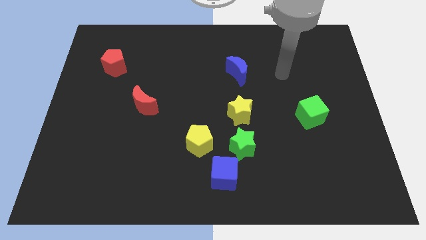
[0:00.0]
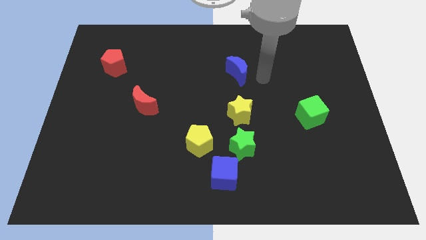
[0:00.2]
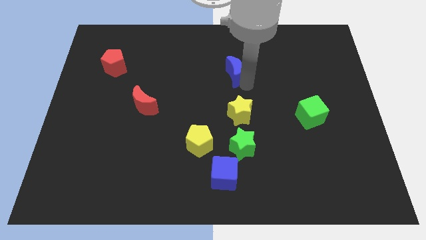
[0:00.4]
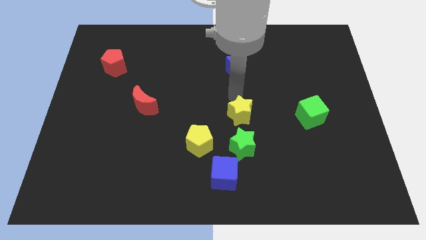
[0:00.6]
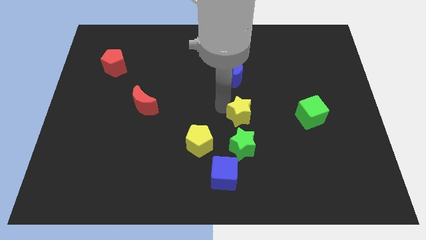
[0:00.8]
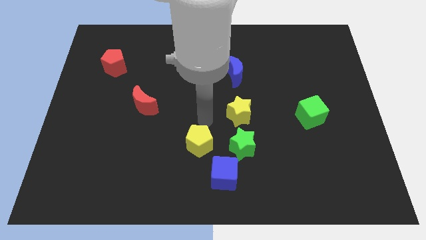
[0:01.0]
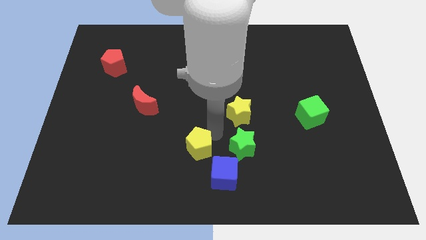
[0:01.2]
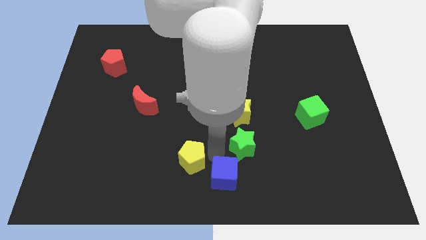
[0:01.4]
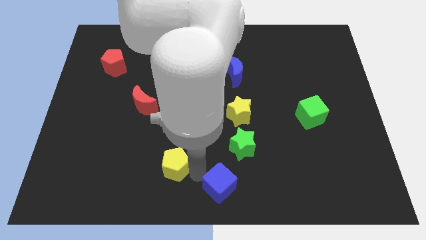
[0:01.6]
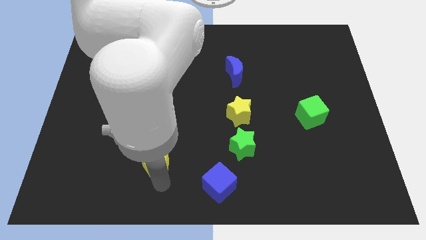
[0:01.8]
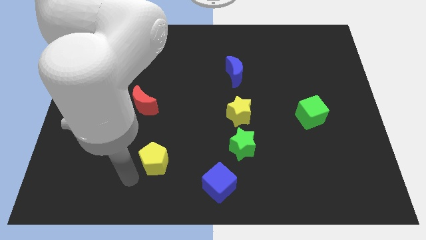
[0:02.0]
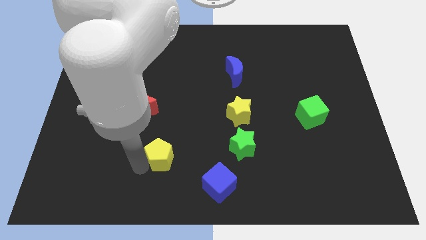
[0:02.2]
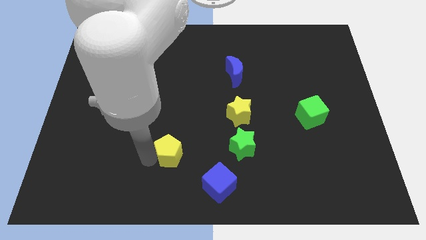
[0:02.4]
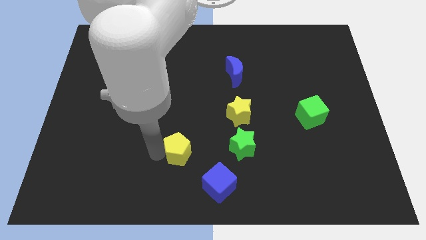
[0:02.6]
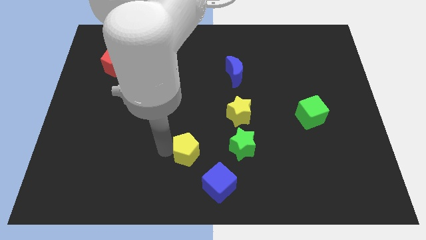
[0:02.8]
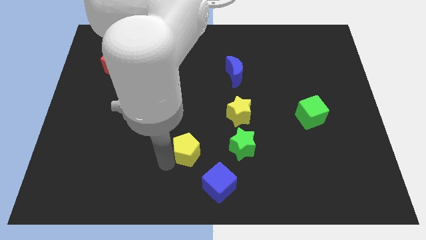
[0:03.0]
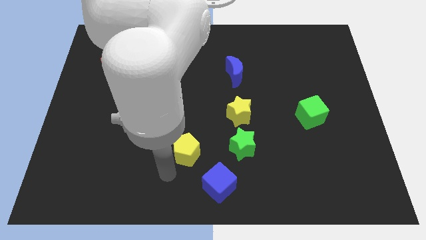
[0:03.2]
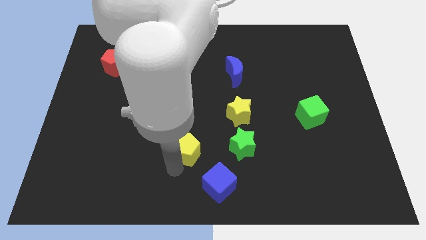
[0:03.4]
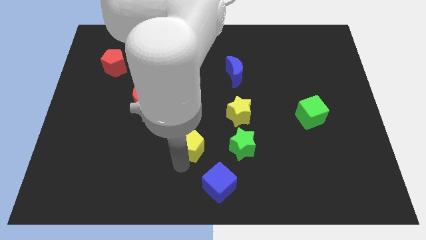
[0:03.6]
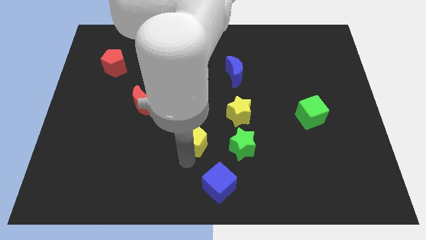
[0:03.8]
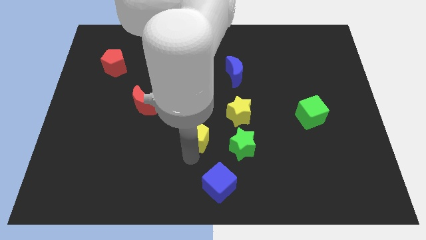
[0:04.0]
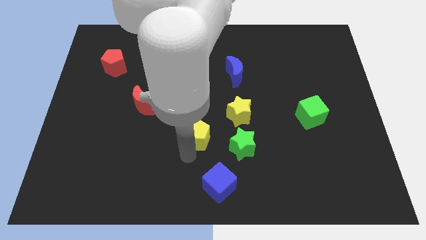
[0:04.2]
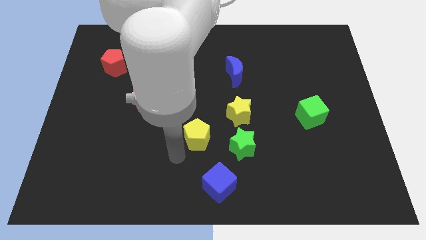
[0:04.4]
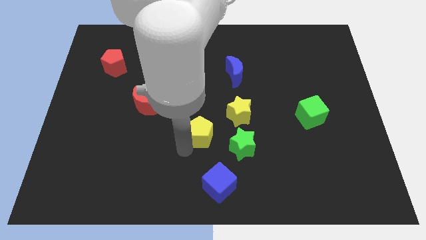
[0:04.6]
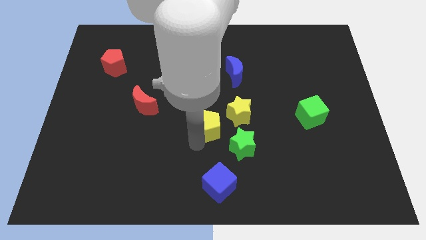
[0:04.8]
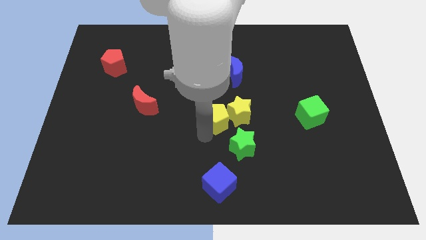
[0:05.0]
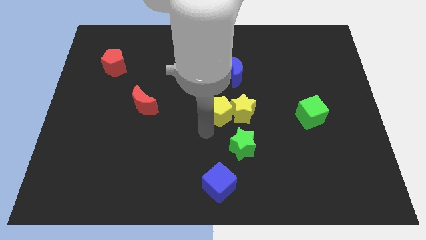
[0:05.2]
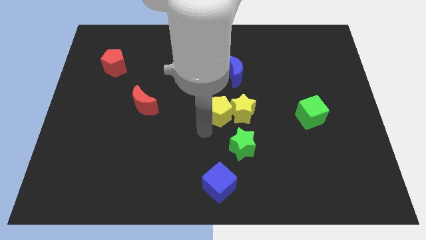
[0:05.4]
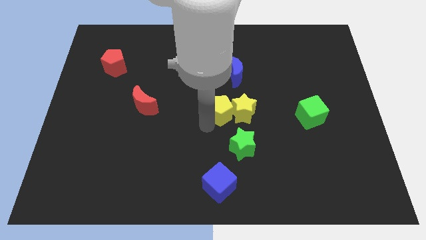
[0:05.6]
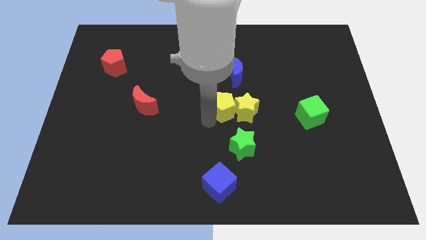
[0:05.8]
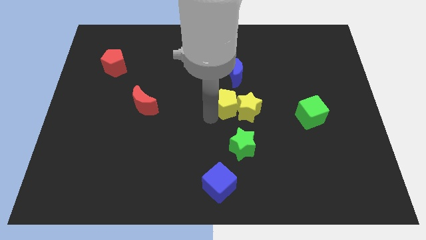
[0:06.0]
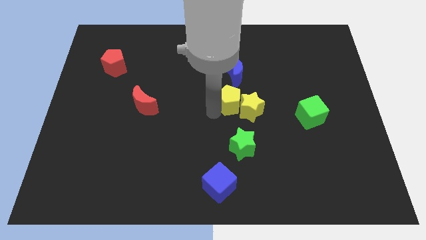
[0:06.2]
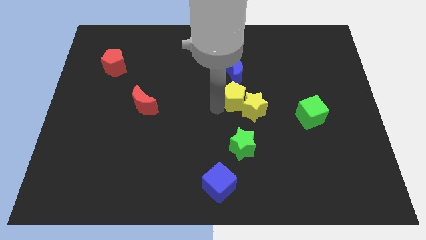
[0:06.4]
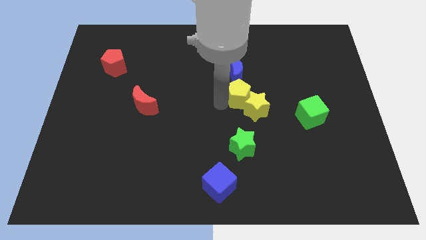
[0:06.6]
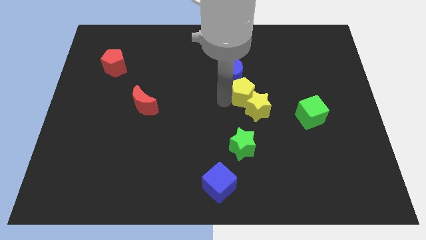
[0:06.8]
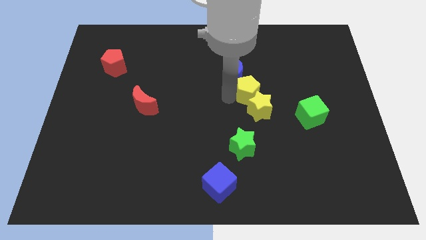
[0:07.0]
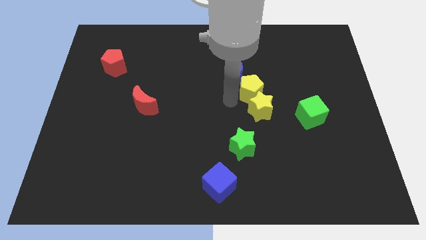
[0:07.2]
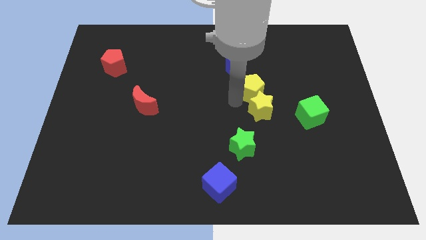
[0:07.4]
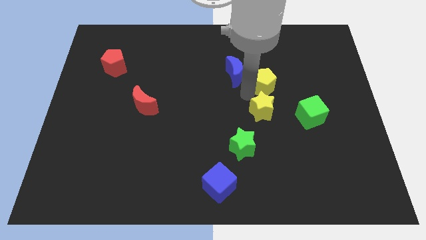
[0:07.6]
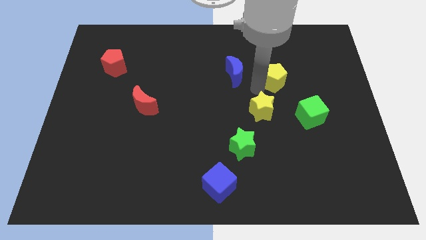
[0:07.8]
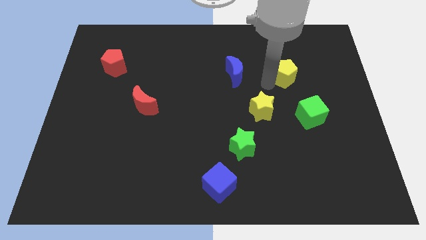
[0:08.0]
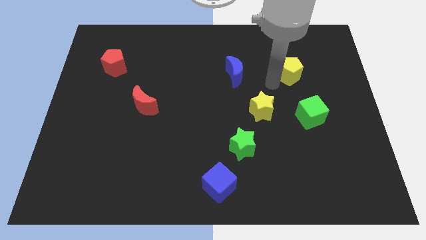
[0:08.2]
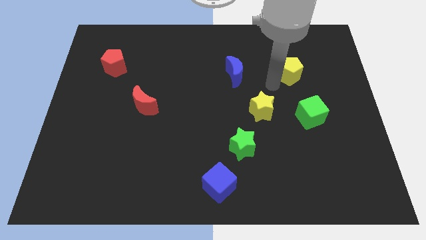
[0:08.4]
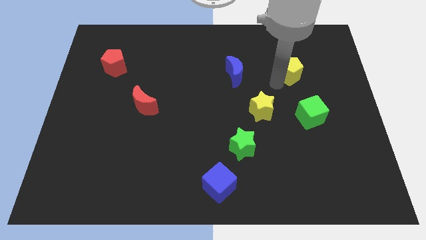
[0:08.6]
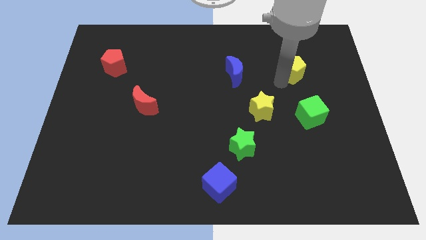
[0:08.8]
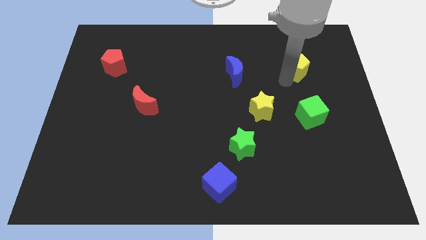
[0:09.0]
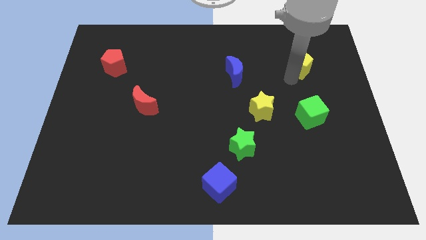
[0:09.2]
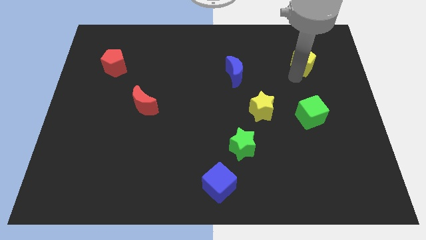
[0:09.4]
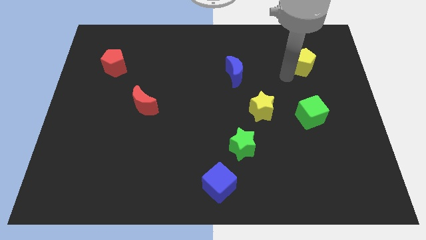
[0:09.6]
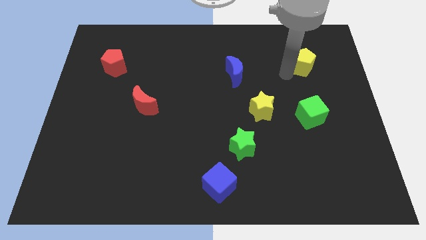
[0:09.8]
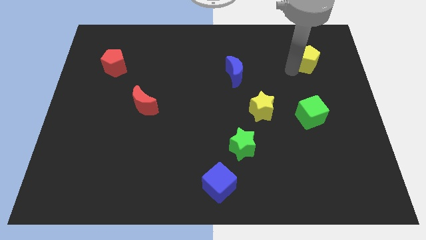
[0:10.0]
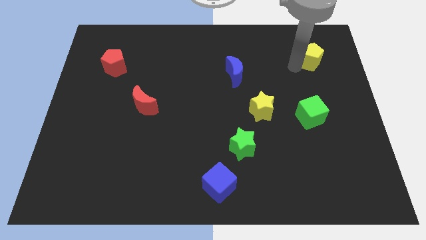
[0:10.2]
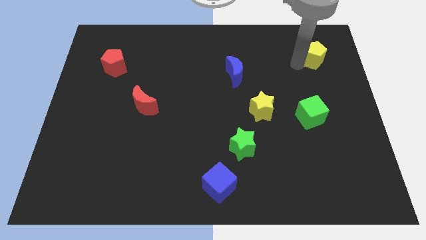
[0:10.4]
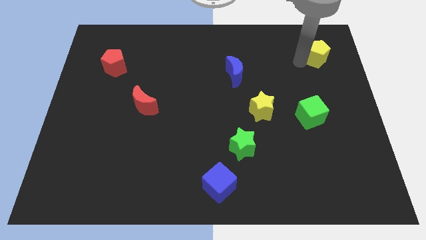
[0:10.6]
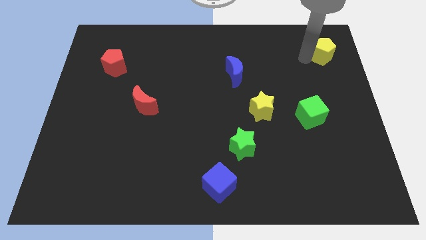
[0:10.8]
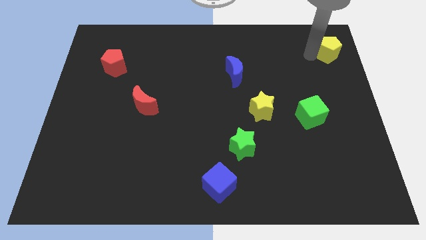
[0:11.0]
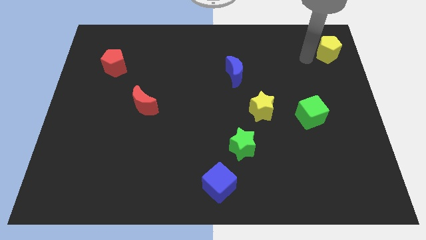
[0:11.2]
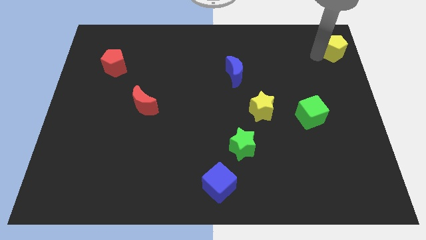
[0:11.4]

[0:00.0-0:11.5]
push the yellow pentagon to the top right corner
